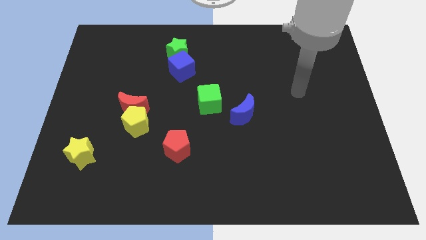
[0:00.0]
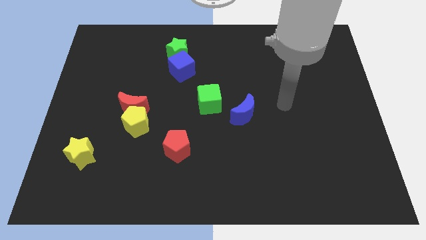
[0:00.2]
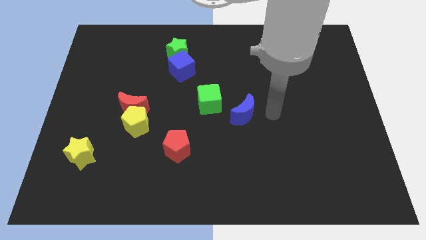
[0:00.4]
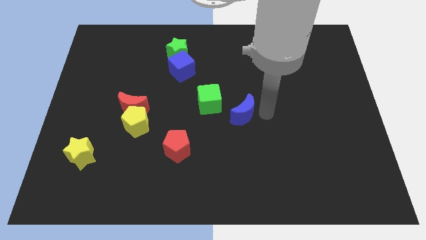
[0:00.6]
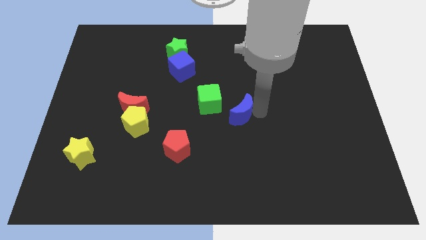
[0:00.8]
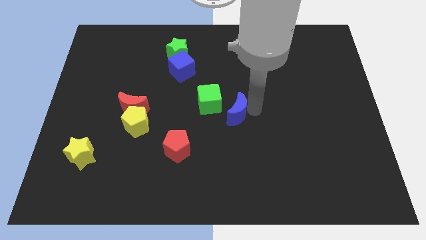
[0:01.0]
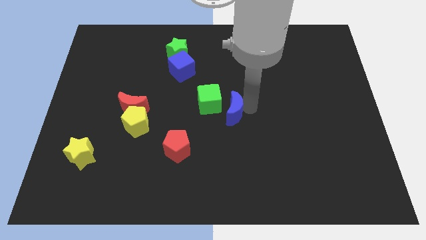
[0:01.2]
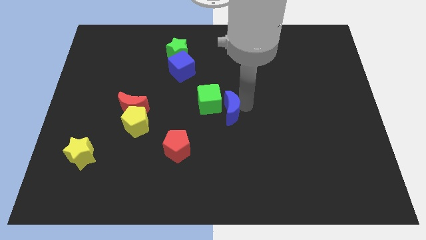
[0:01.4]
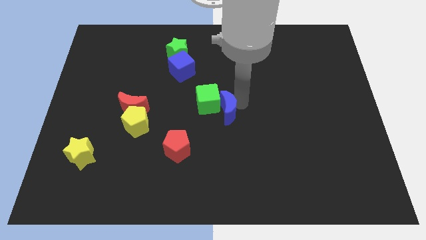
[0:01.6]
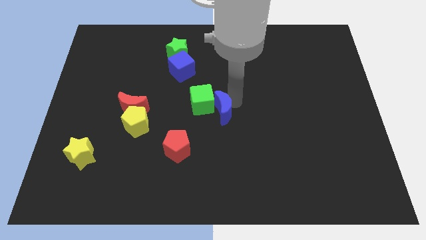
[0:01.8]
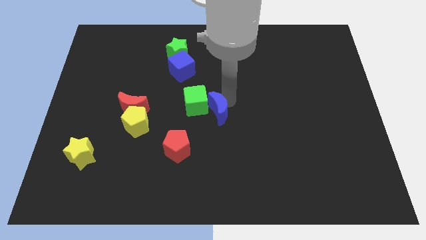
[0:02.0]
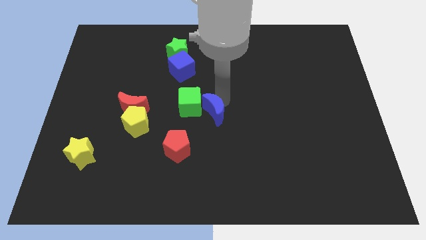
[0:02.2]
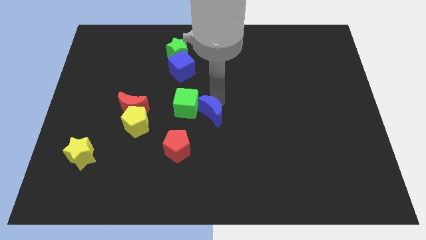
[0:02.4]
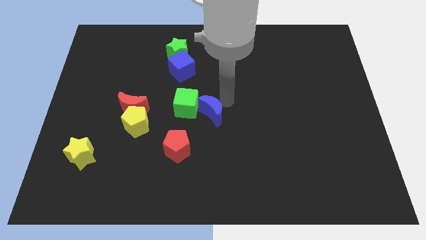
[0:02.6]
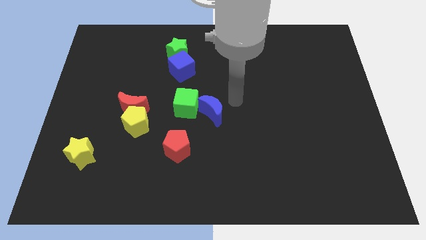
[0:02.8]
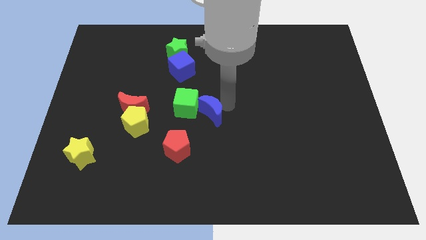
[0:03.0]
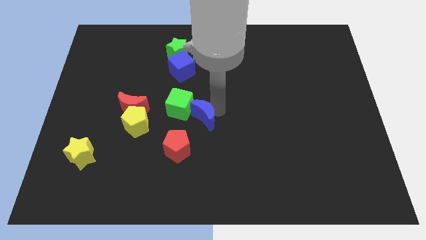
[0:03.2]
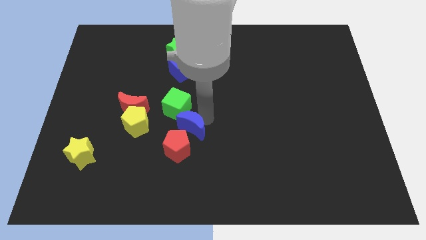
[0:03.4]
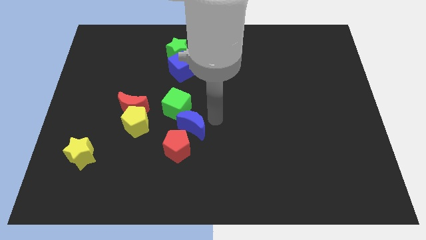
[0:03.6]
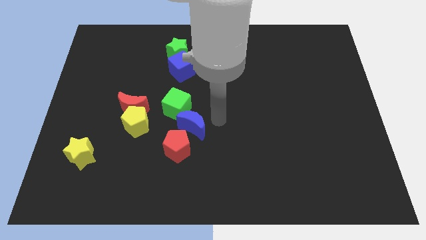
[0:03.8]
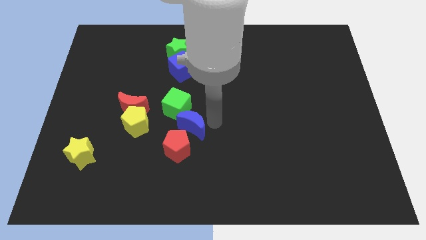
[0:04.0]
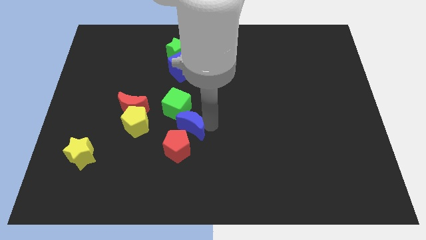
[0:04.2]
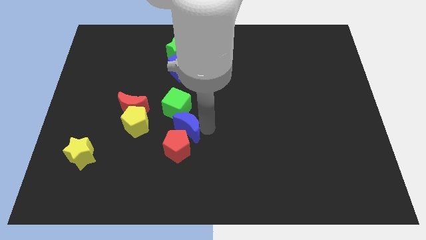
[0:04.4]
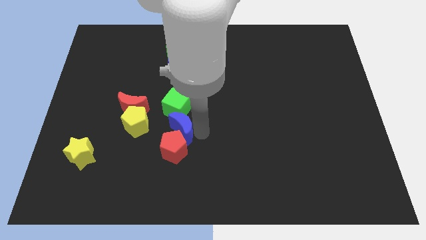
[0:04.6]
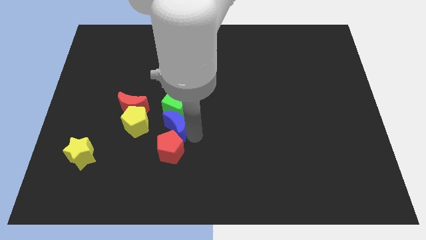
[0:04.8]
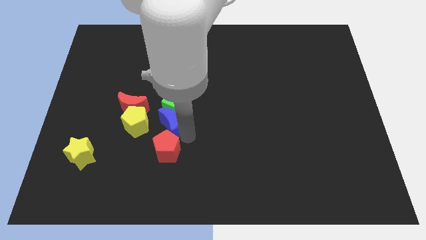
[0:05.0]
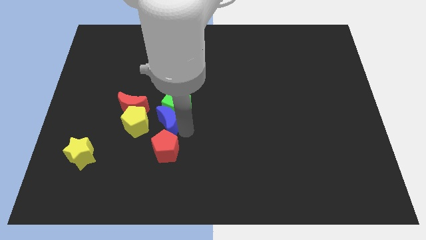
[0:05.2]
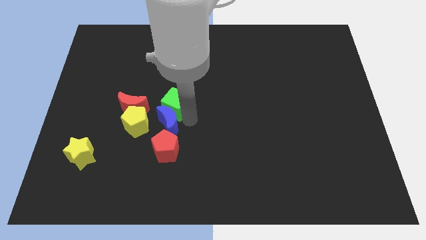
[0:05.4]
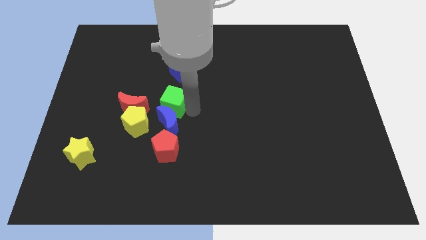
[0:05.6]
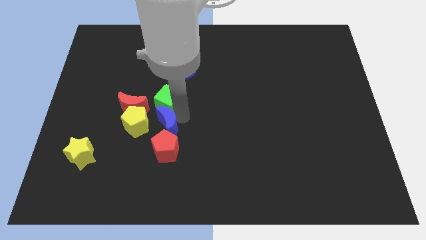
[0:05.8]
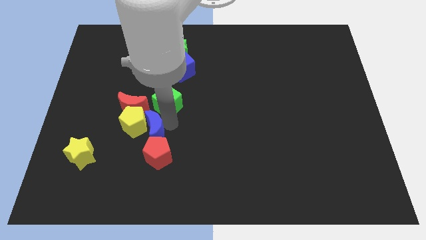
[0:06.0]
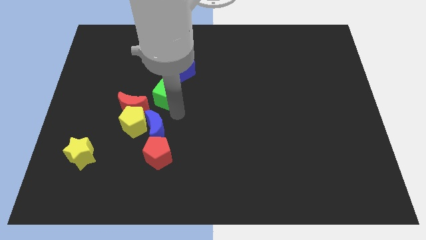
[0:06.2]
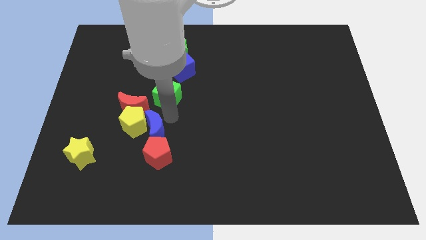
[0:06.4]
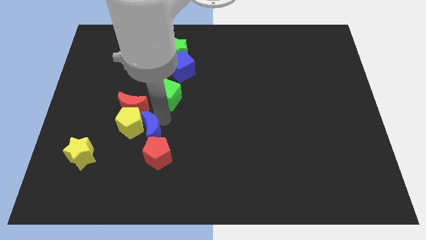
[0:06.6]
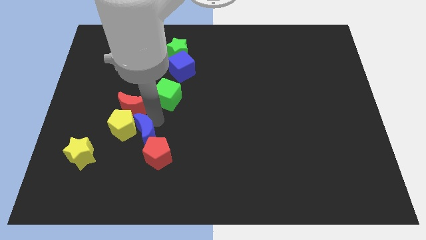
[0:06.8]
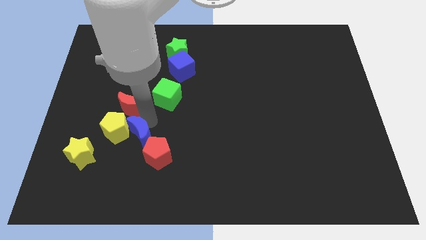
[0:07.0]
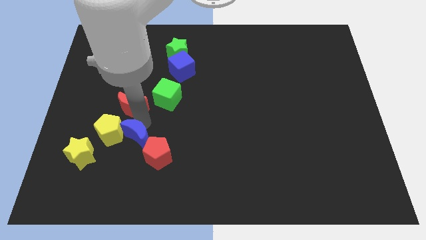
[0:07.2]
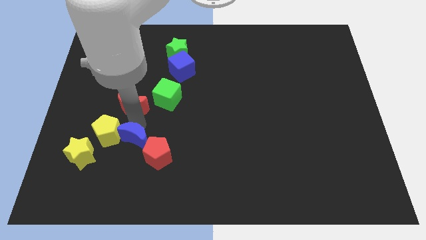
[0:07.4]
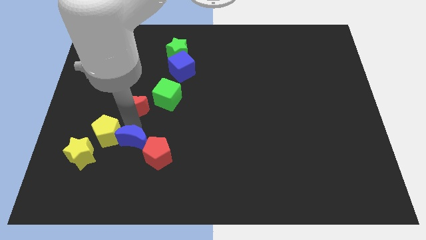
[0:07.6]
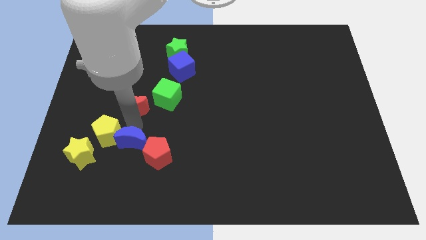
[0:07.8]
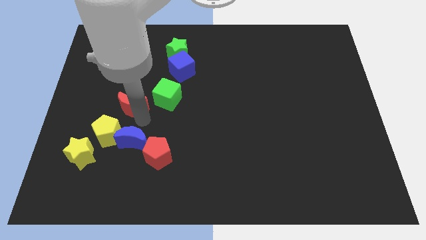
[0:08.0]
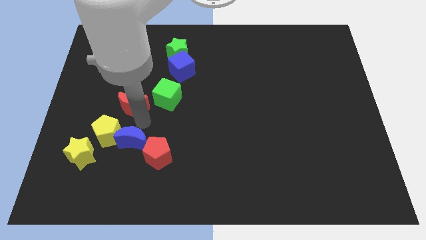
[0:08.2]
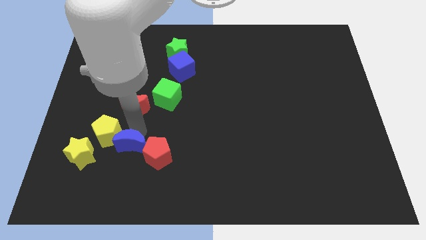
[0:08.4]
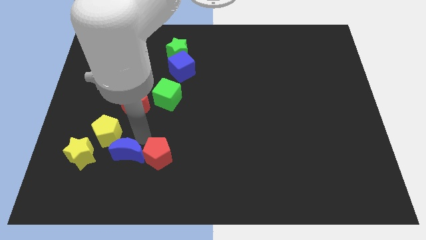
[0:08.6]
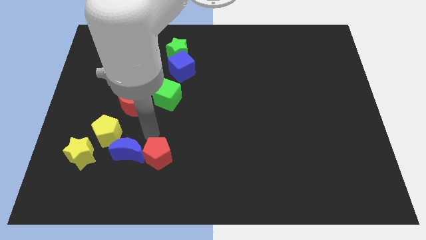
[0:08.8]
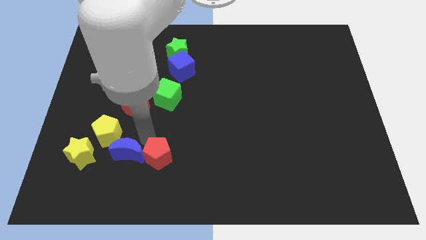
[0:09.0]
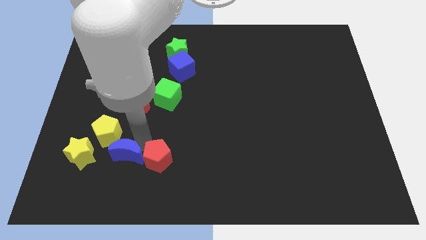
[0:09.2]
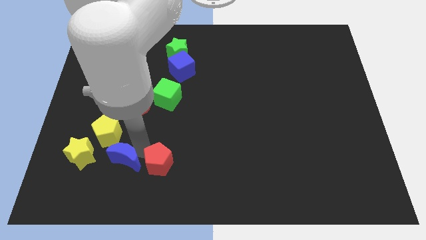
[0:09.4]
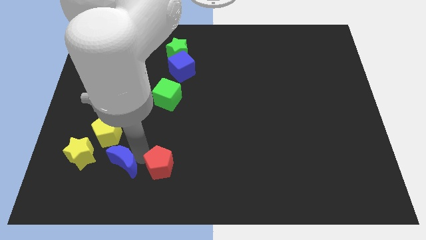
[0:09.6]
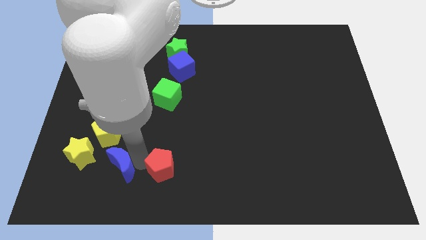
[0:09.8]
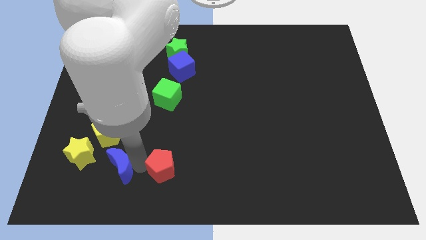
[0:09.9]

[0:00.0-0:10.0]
push the blue moon to the bottom right of the yellow star

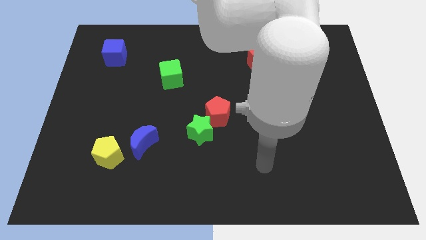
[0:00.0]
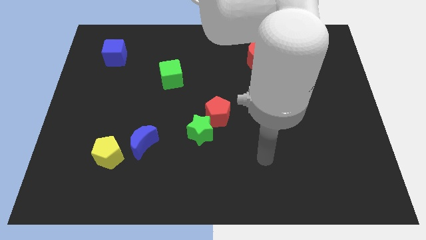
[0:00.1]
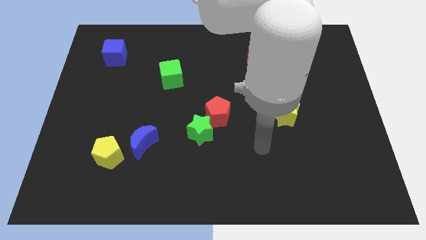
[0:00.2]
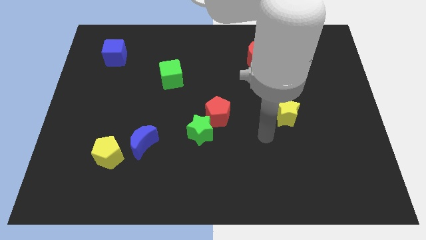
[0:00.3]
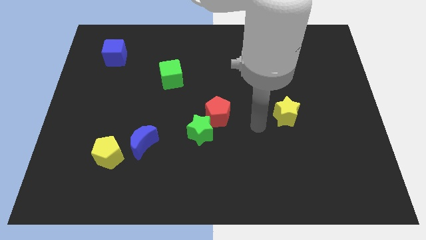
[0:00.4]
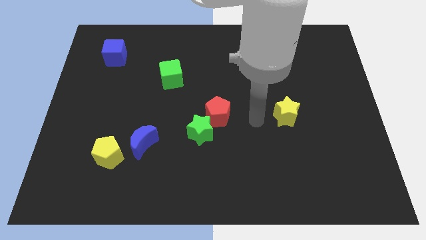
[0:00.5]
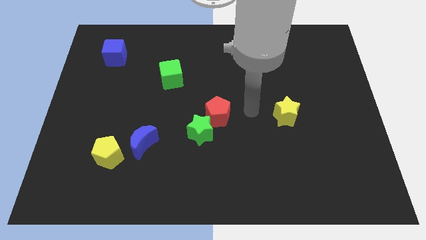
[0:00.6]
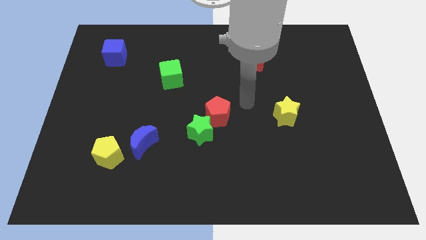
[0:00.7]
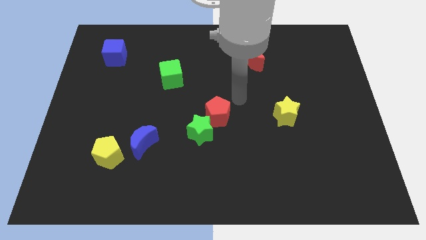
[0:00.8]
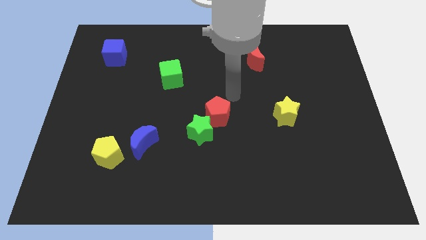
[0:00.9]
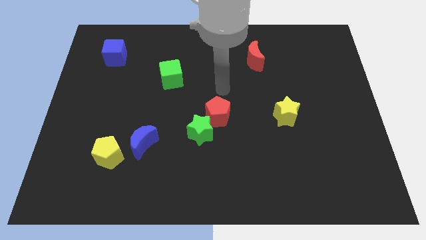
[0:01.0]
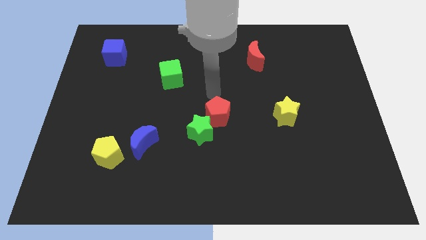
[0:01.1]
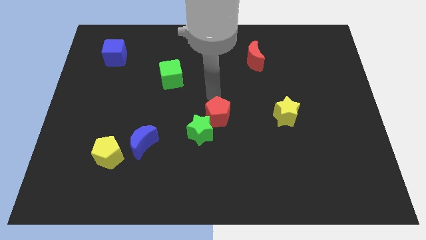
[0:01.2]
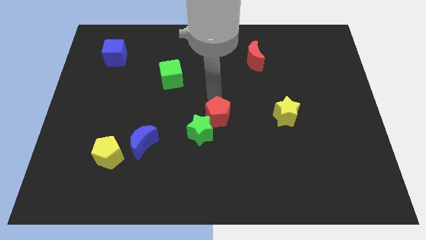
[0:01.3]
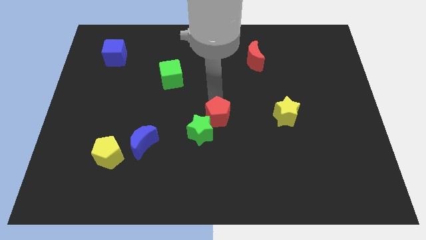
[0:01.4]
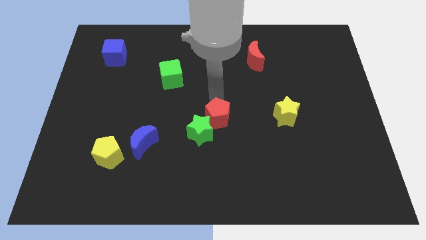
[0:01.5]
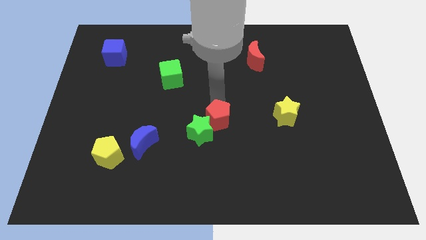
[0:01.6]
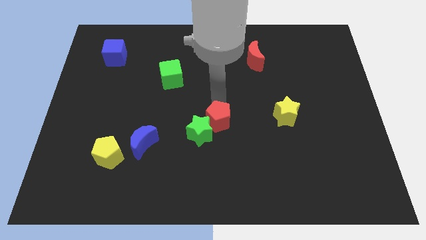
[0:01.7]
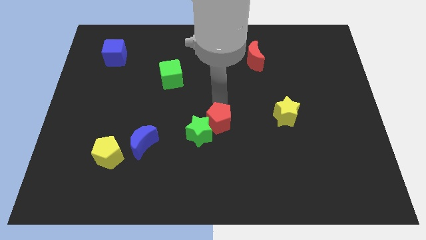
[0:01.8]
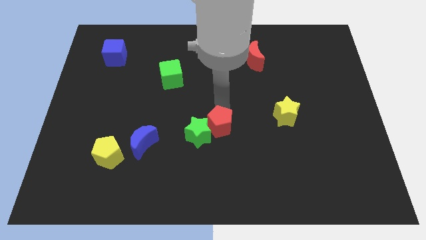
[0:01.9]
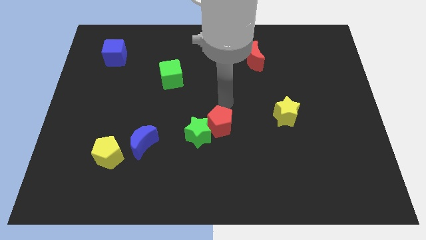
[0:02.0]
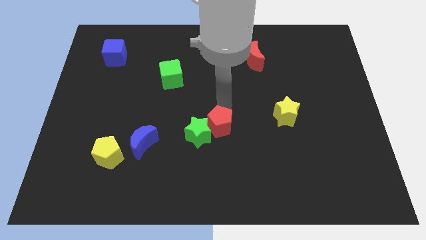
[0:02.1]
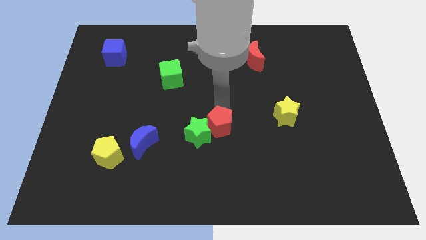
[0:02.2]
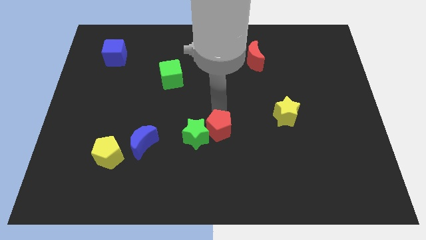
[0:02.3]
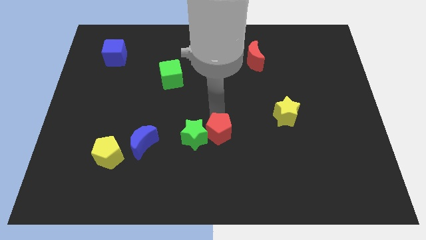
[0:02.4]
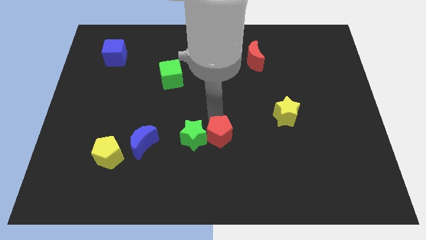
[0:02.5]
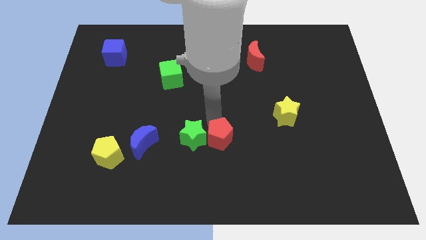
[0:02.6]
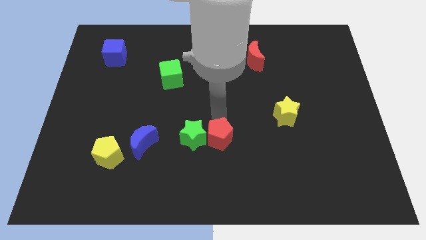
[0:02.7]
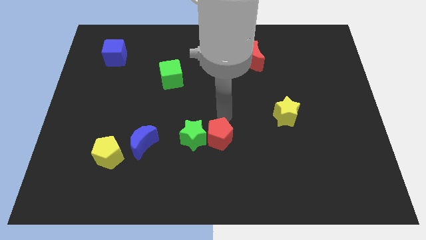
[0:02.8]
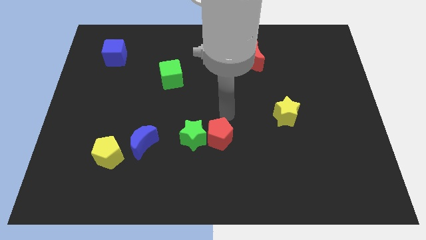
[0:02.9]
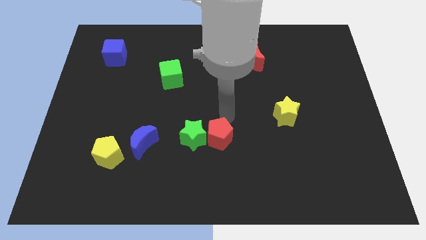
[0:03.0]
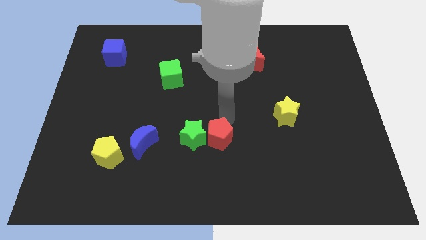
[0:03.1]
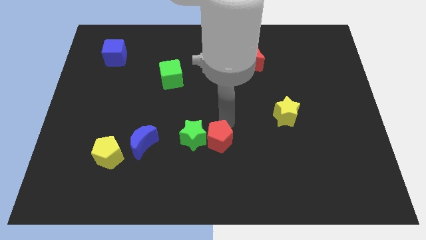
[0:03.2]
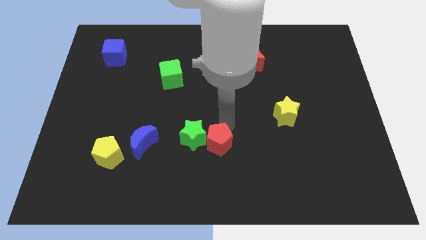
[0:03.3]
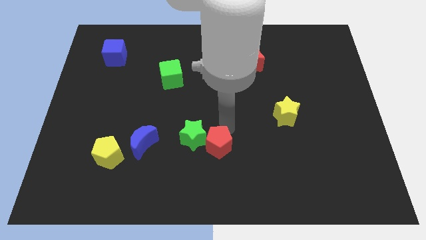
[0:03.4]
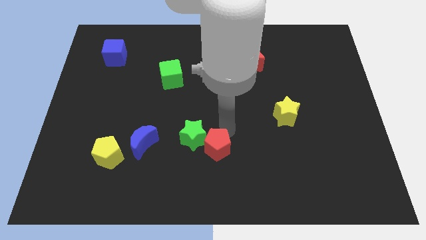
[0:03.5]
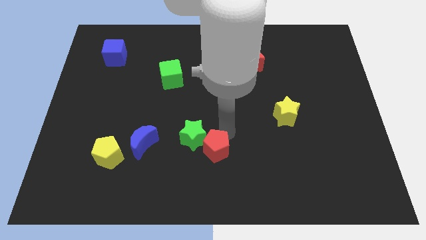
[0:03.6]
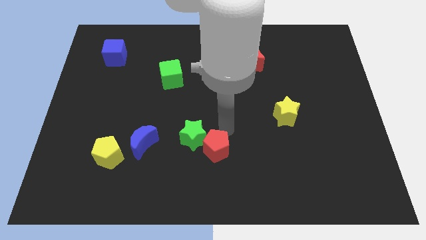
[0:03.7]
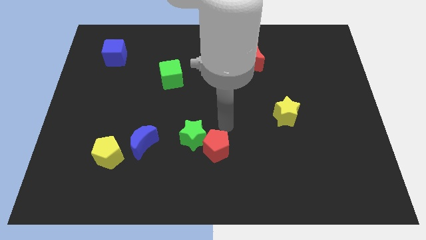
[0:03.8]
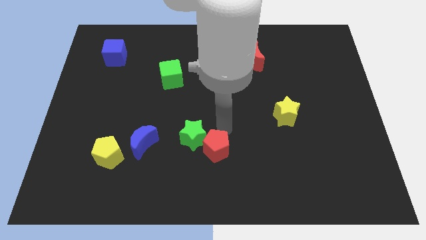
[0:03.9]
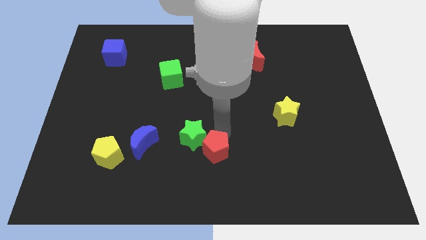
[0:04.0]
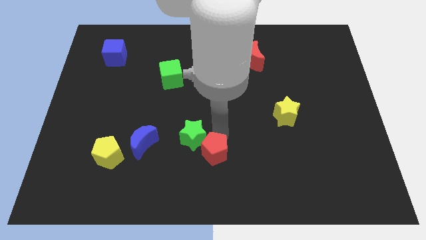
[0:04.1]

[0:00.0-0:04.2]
slide the red pentagon below the green star
